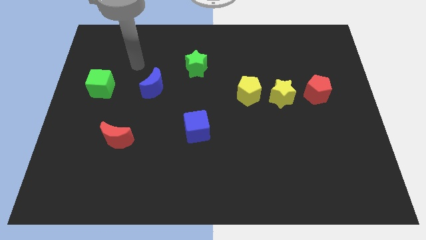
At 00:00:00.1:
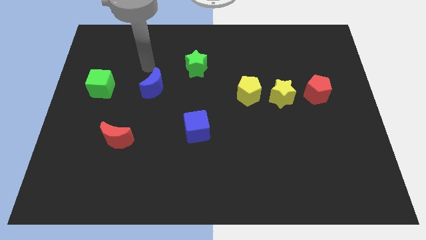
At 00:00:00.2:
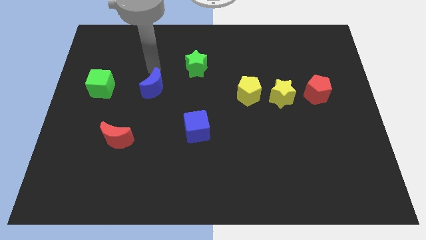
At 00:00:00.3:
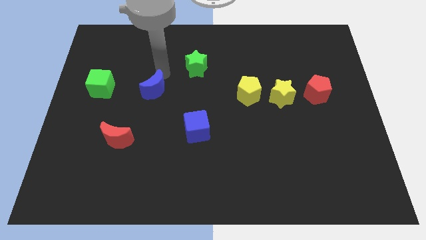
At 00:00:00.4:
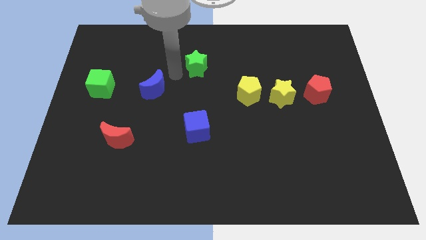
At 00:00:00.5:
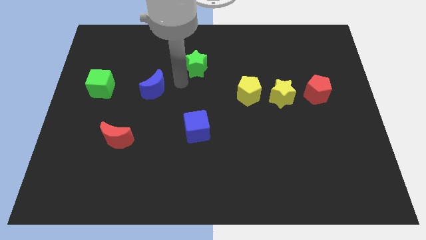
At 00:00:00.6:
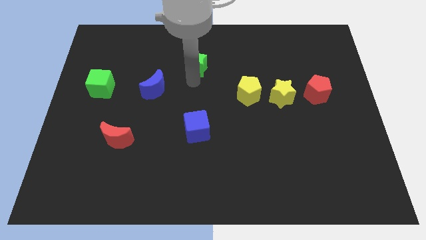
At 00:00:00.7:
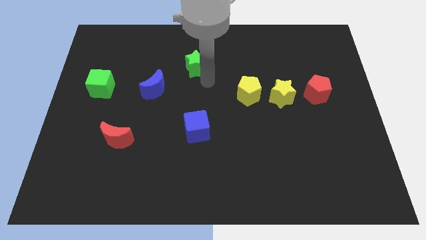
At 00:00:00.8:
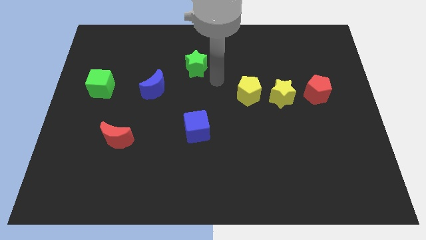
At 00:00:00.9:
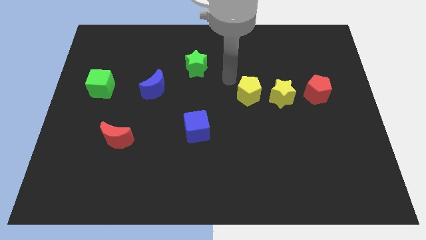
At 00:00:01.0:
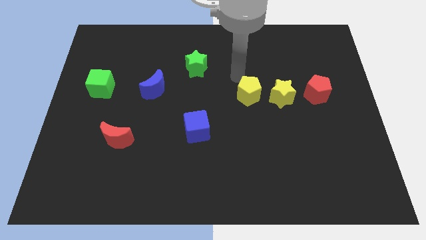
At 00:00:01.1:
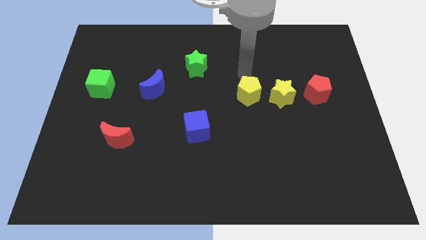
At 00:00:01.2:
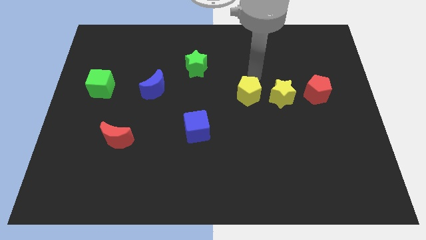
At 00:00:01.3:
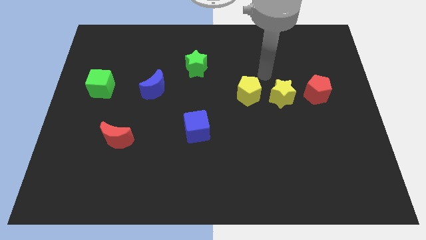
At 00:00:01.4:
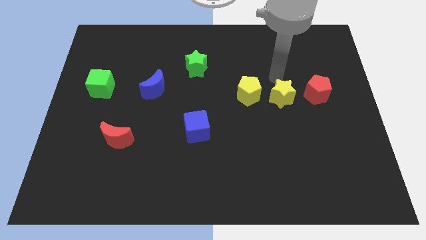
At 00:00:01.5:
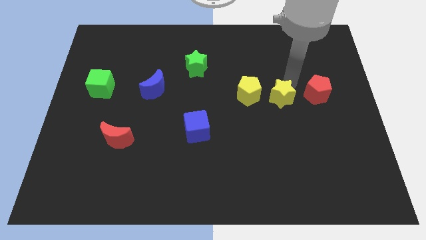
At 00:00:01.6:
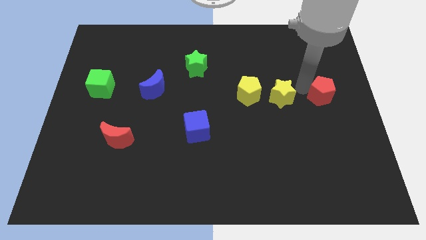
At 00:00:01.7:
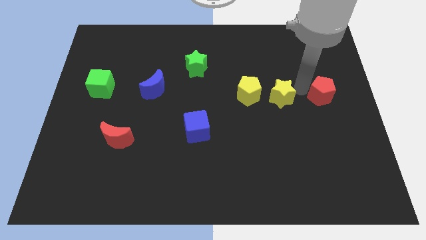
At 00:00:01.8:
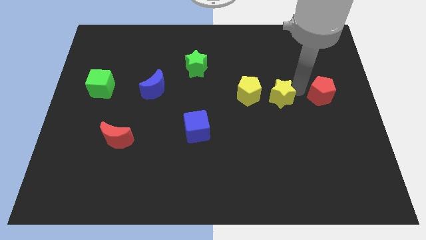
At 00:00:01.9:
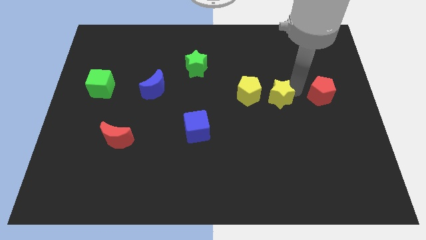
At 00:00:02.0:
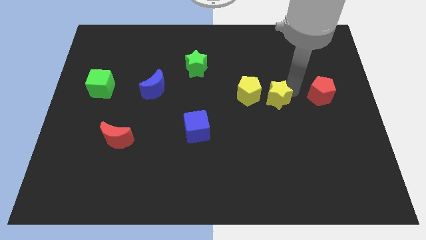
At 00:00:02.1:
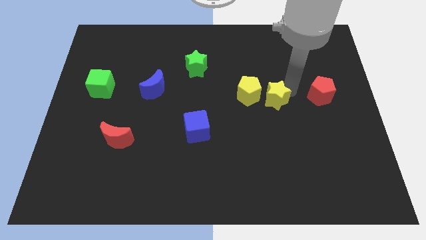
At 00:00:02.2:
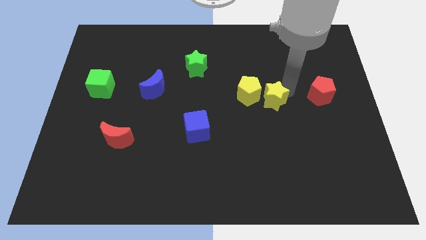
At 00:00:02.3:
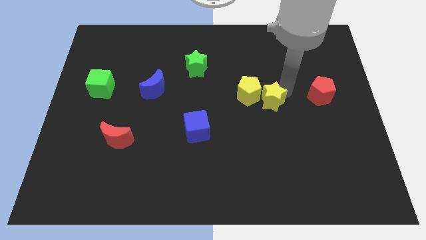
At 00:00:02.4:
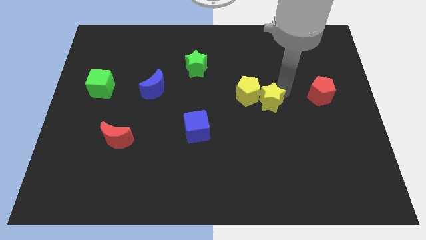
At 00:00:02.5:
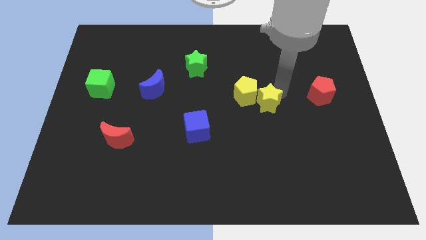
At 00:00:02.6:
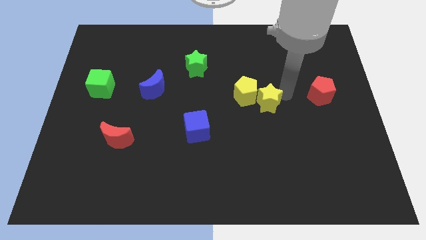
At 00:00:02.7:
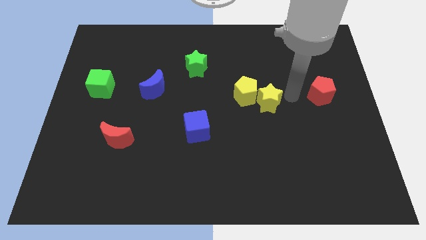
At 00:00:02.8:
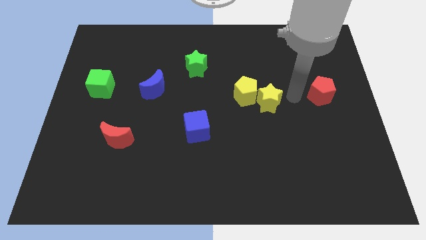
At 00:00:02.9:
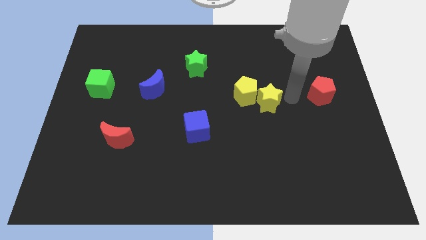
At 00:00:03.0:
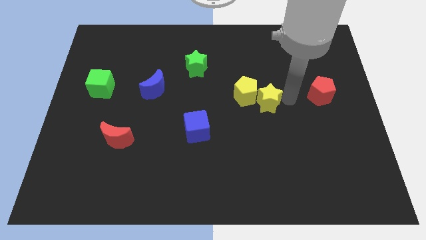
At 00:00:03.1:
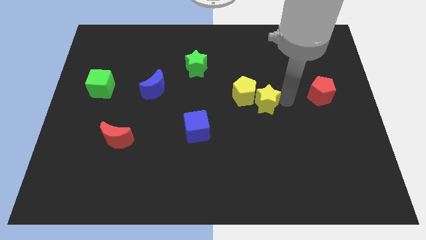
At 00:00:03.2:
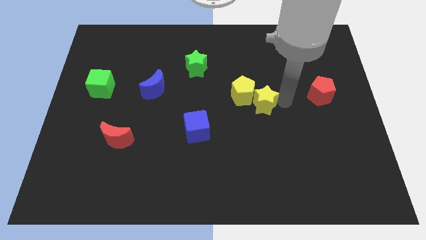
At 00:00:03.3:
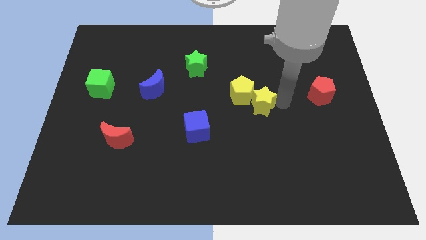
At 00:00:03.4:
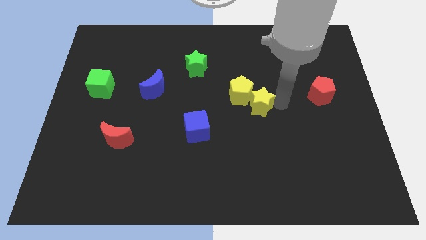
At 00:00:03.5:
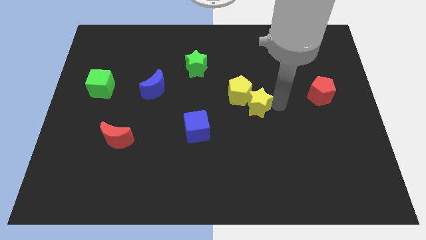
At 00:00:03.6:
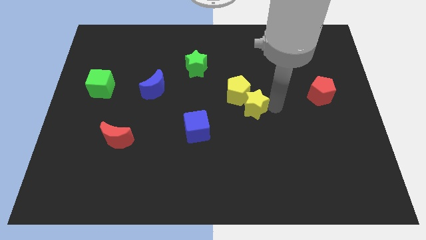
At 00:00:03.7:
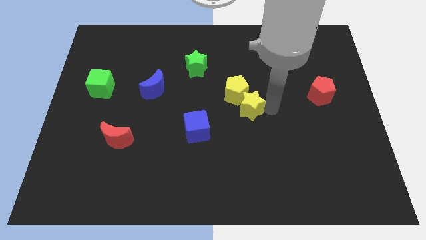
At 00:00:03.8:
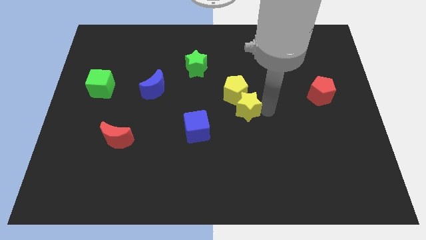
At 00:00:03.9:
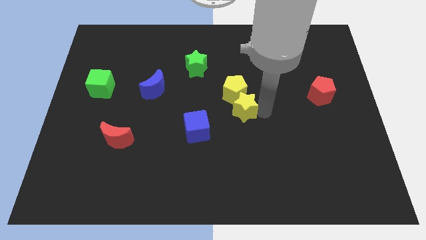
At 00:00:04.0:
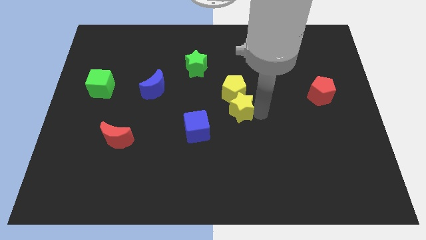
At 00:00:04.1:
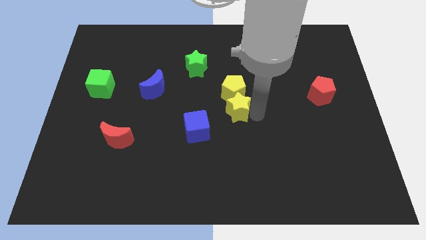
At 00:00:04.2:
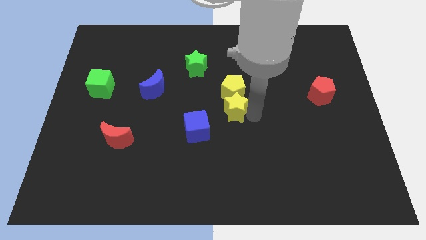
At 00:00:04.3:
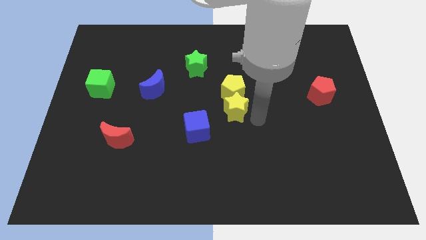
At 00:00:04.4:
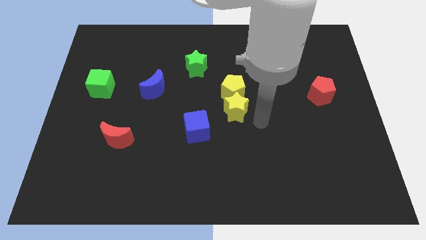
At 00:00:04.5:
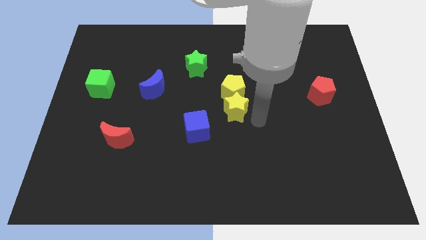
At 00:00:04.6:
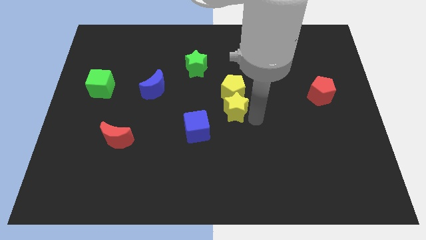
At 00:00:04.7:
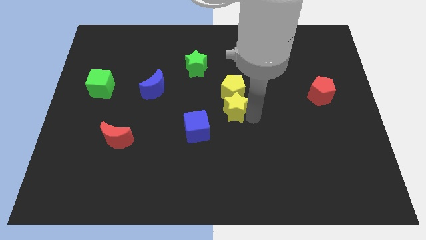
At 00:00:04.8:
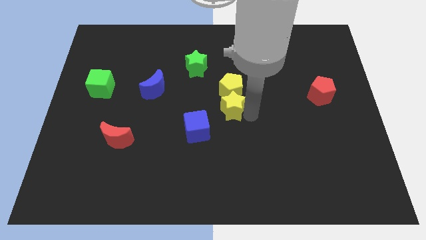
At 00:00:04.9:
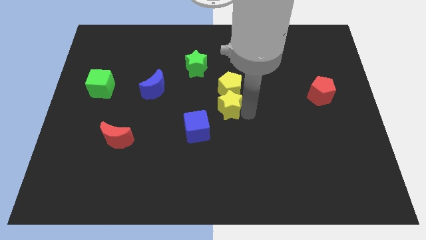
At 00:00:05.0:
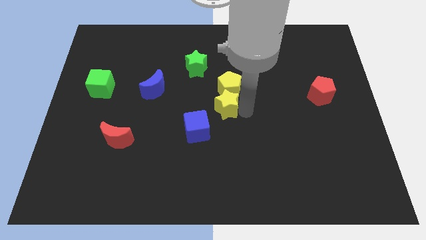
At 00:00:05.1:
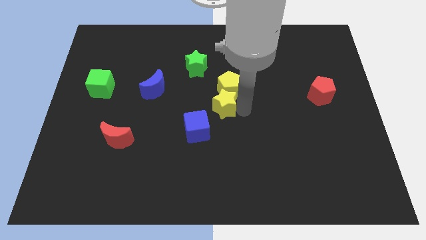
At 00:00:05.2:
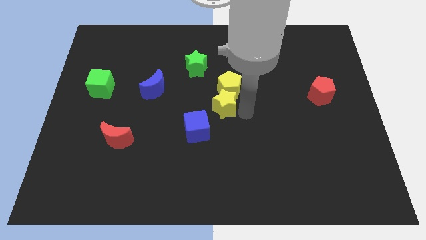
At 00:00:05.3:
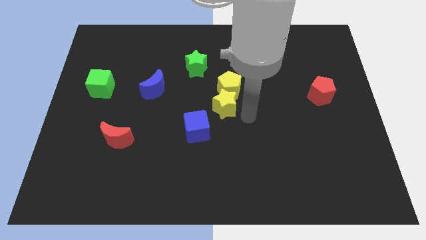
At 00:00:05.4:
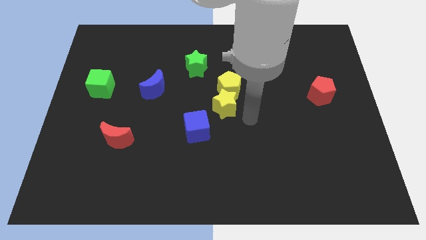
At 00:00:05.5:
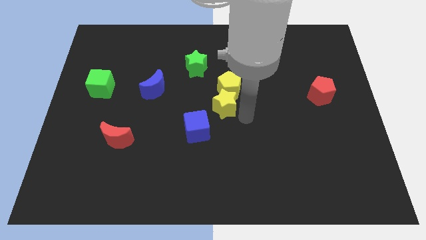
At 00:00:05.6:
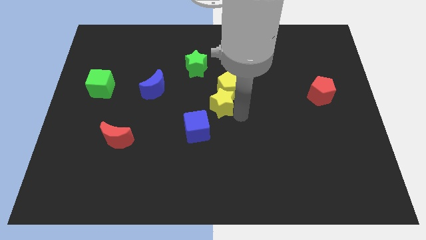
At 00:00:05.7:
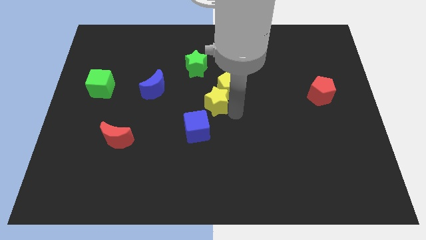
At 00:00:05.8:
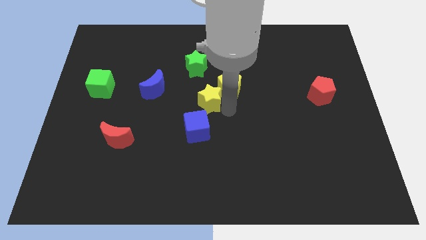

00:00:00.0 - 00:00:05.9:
put the yellow star below the green star
